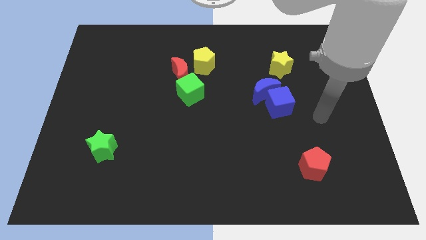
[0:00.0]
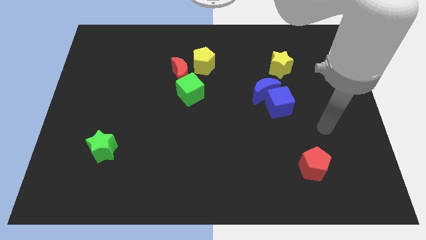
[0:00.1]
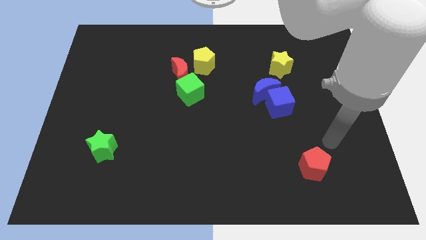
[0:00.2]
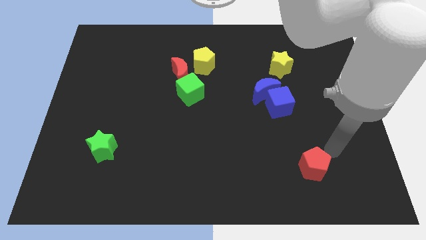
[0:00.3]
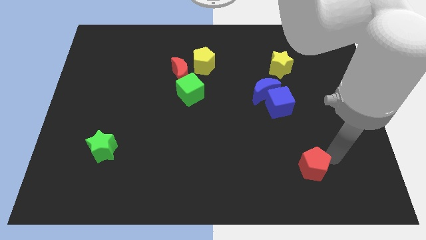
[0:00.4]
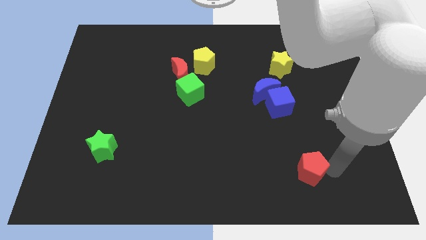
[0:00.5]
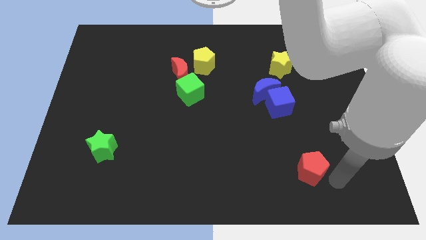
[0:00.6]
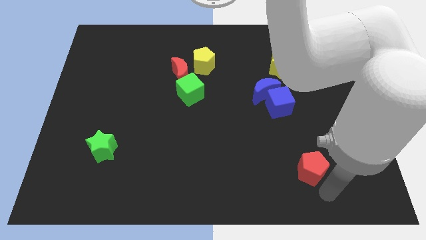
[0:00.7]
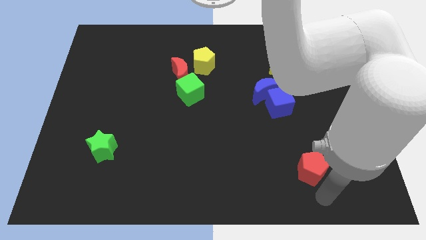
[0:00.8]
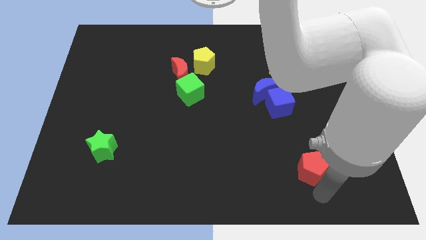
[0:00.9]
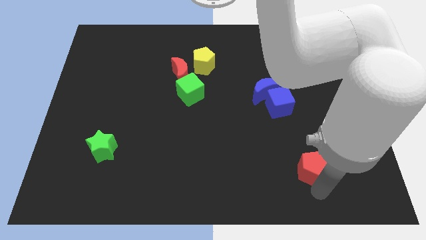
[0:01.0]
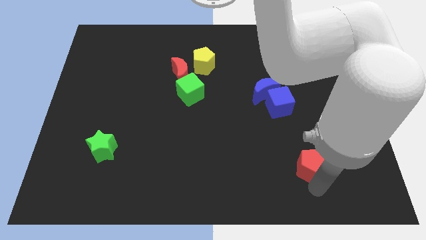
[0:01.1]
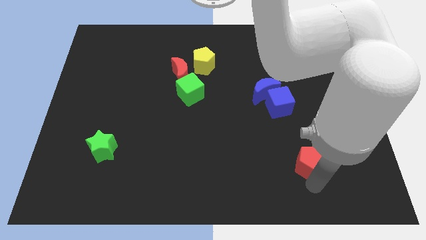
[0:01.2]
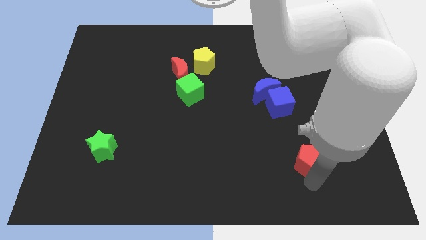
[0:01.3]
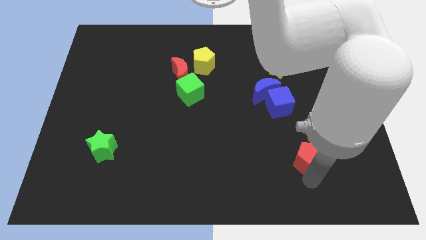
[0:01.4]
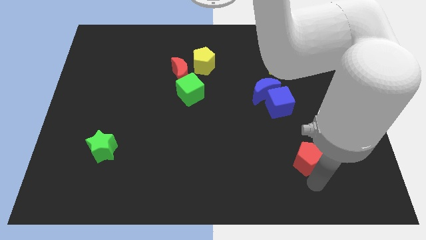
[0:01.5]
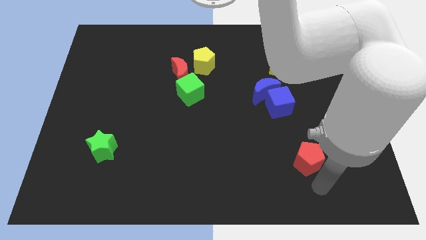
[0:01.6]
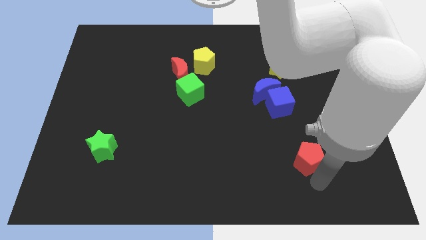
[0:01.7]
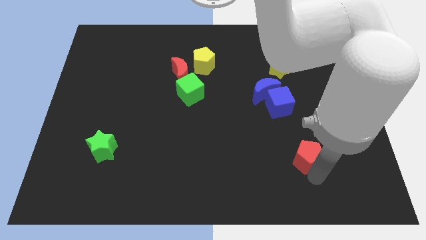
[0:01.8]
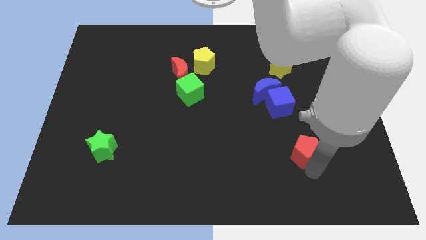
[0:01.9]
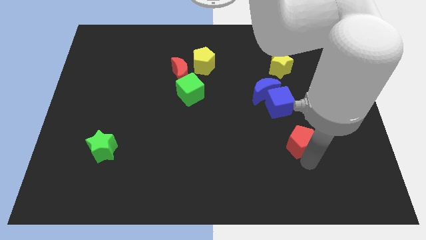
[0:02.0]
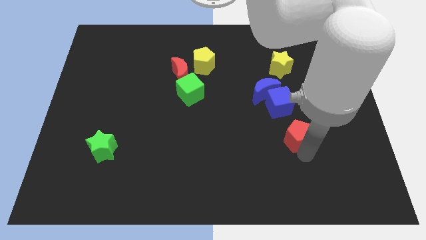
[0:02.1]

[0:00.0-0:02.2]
move the red pentagon upwards a little bit

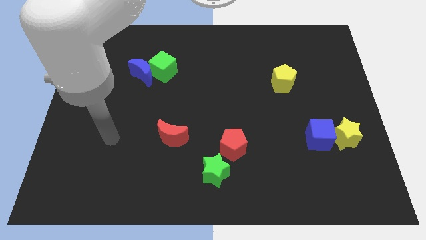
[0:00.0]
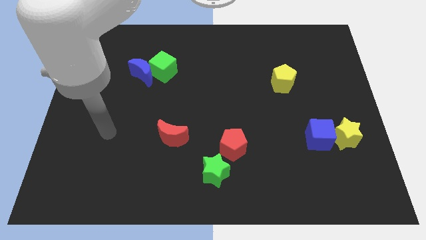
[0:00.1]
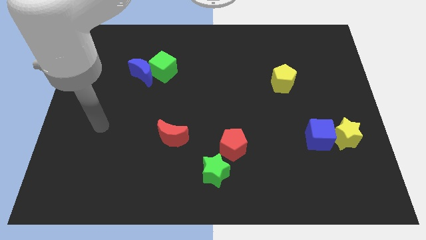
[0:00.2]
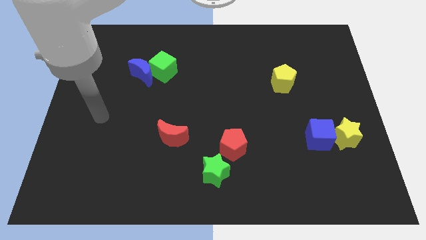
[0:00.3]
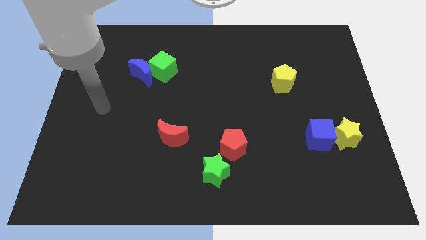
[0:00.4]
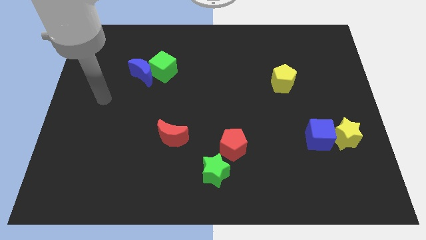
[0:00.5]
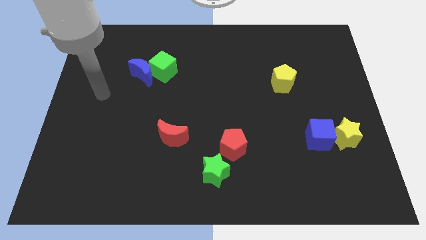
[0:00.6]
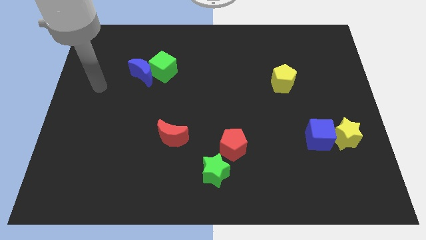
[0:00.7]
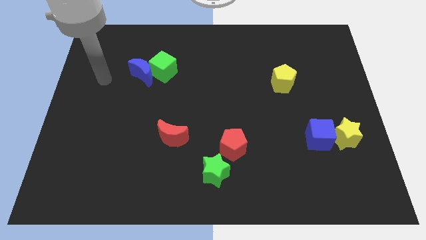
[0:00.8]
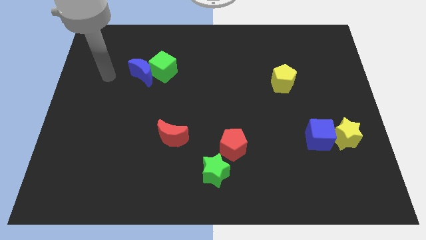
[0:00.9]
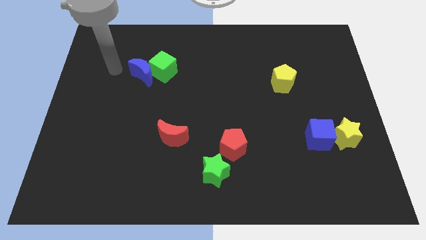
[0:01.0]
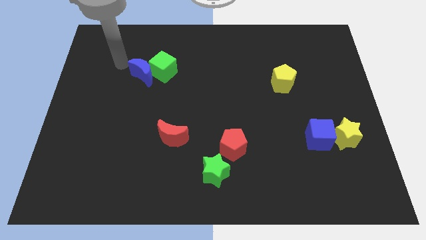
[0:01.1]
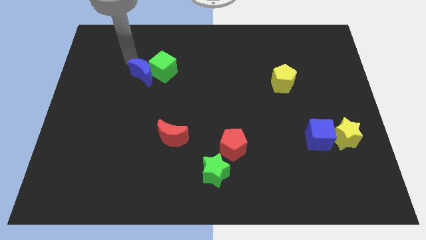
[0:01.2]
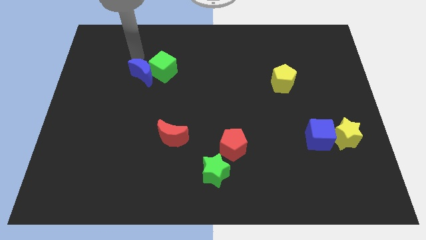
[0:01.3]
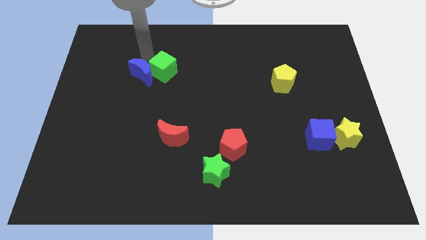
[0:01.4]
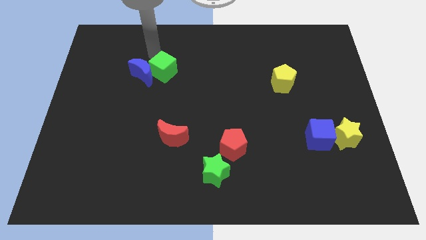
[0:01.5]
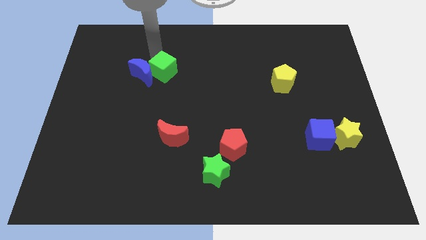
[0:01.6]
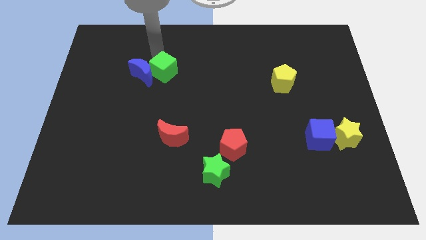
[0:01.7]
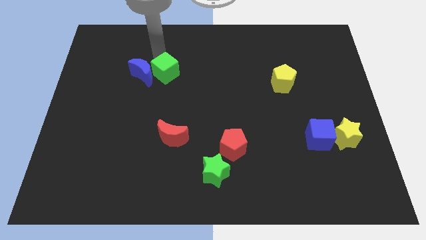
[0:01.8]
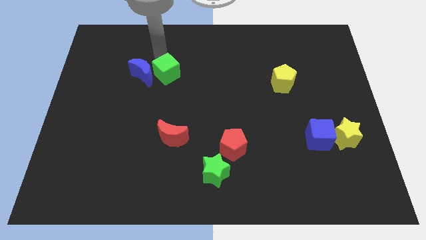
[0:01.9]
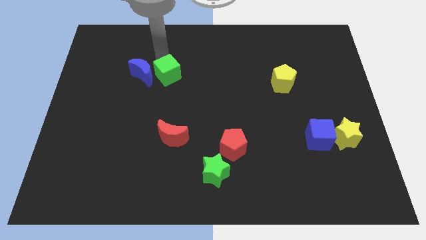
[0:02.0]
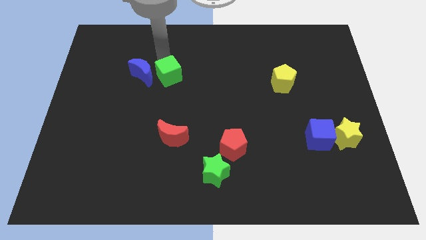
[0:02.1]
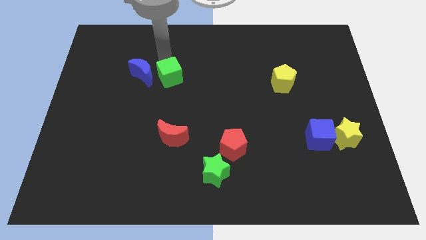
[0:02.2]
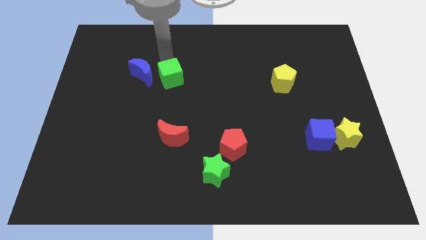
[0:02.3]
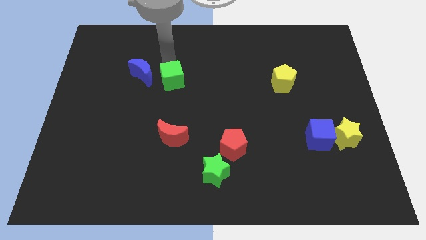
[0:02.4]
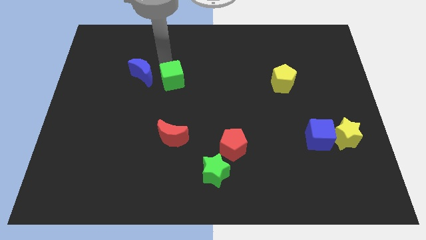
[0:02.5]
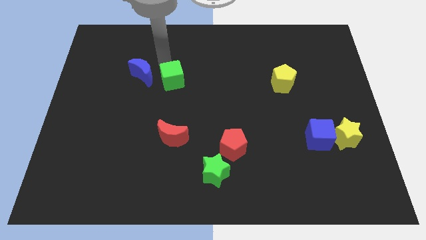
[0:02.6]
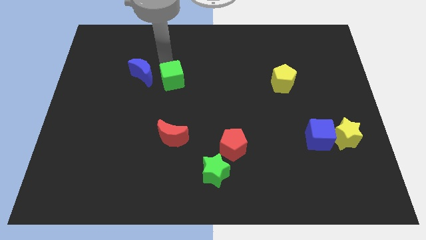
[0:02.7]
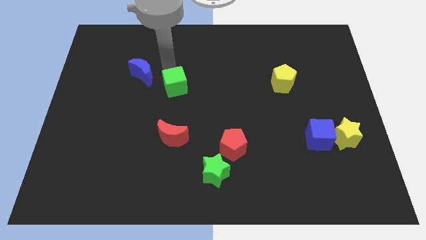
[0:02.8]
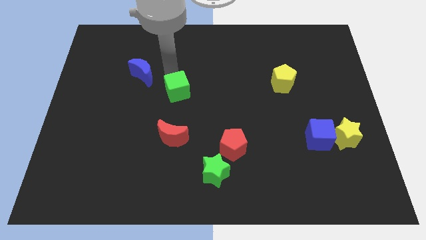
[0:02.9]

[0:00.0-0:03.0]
slightly push the green cube downwards and to the right diagonally

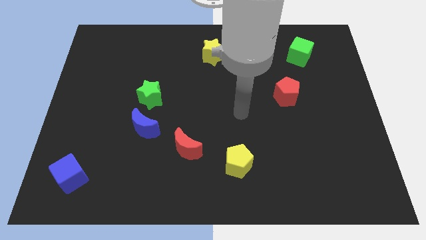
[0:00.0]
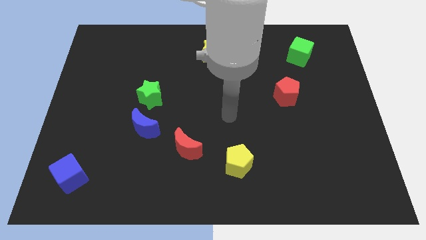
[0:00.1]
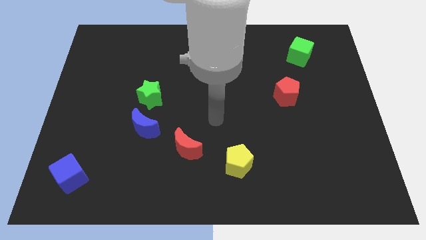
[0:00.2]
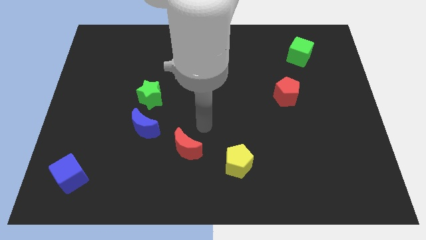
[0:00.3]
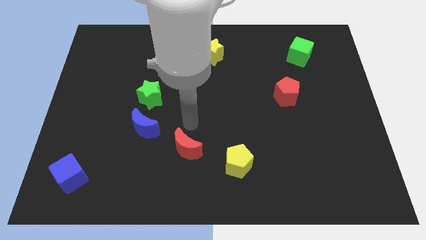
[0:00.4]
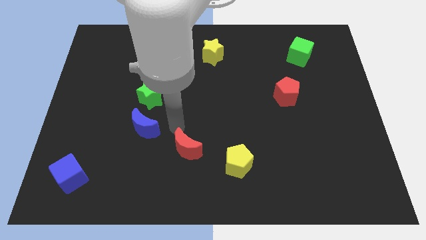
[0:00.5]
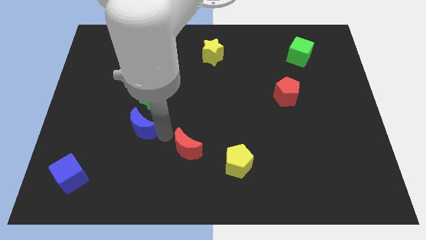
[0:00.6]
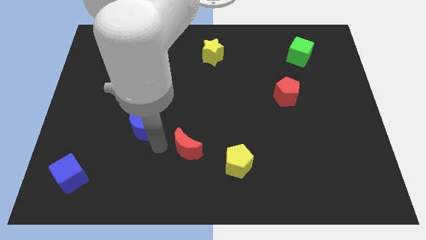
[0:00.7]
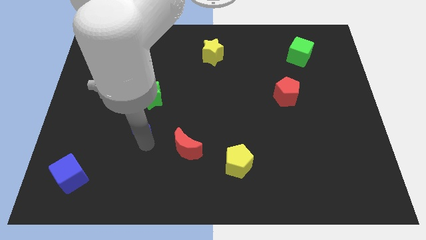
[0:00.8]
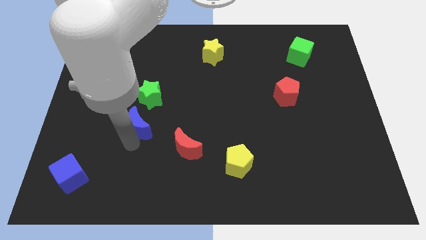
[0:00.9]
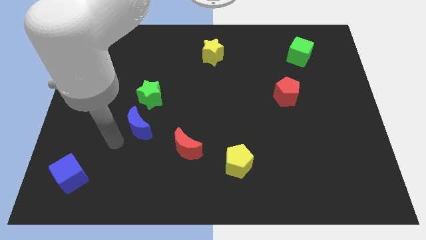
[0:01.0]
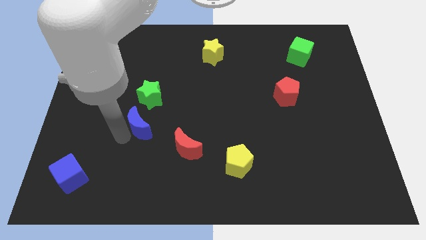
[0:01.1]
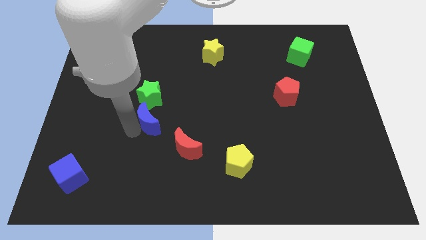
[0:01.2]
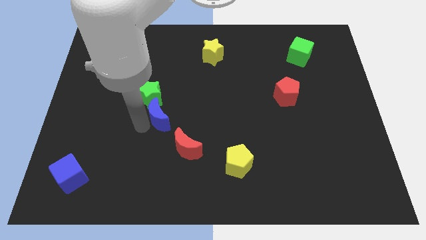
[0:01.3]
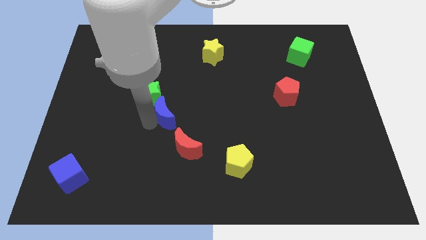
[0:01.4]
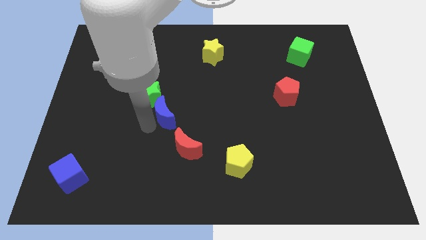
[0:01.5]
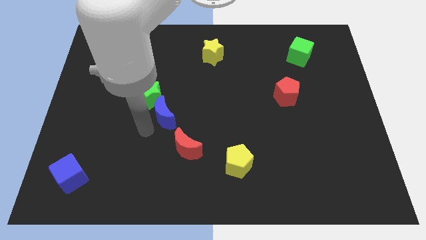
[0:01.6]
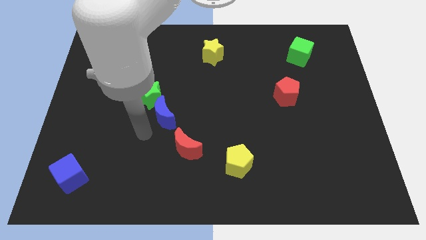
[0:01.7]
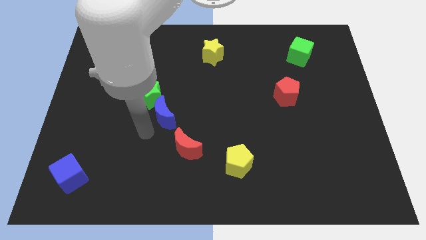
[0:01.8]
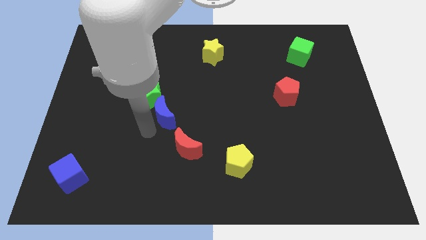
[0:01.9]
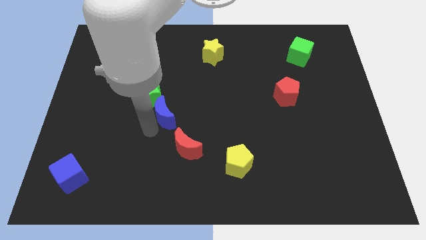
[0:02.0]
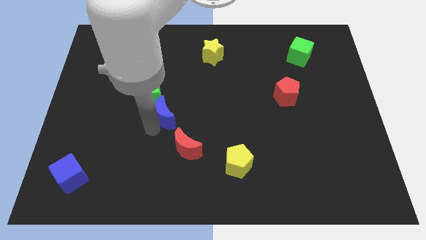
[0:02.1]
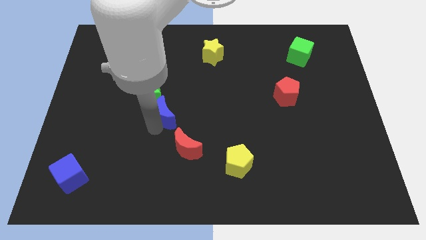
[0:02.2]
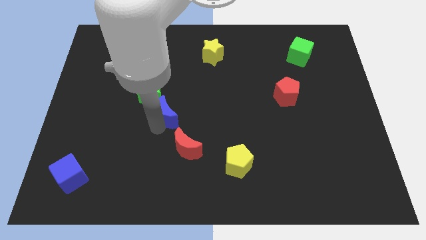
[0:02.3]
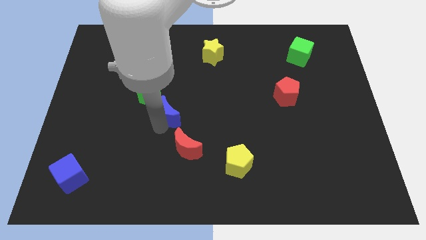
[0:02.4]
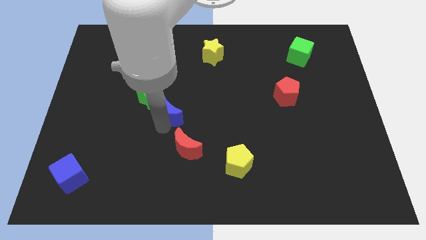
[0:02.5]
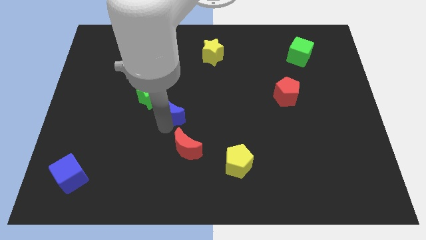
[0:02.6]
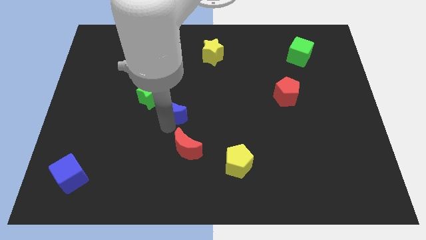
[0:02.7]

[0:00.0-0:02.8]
slide the blue moon diagonally upwards and right a bit

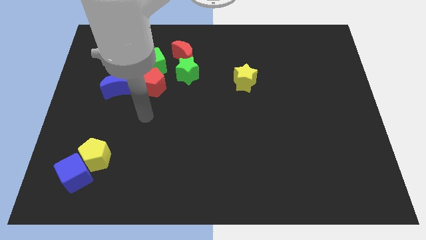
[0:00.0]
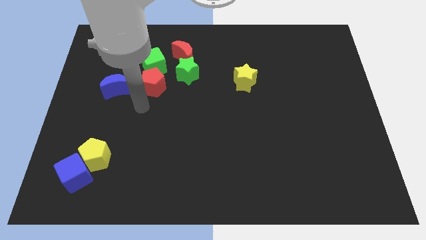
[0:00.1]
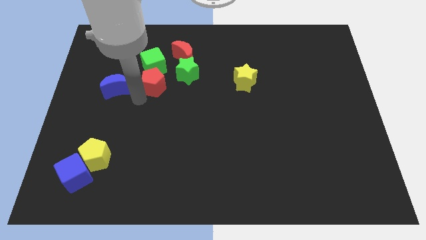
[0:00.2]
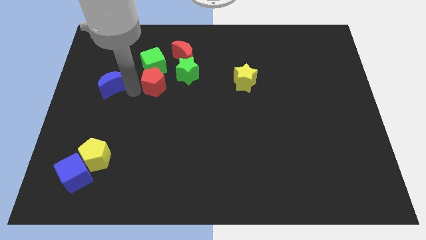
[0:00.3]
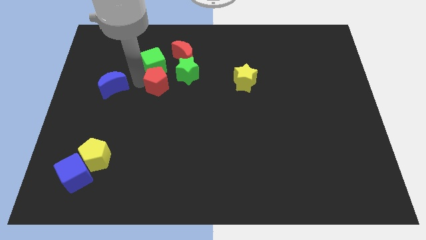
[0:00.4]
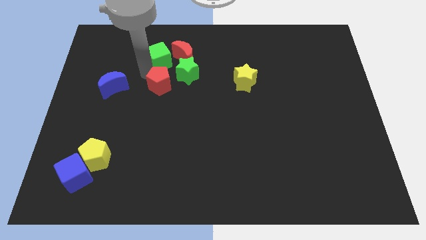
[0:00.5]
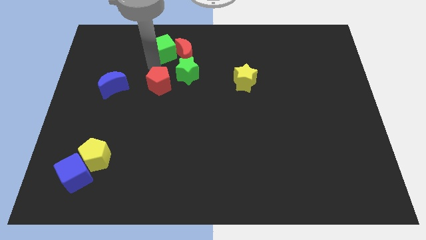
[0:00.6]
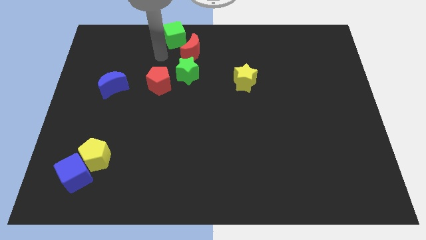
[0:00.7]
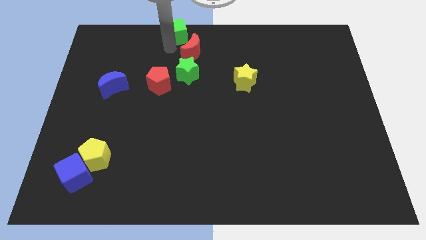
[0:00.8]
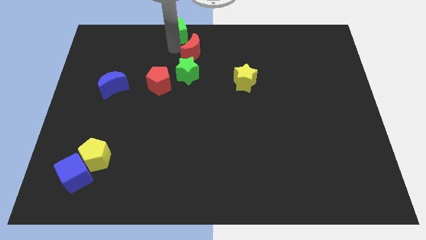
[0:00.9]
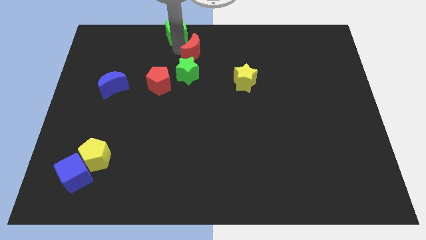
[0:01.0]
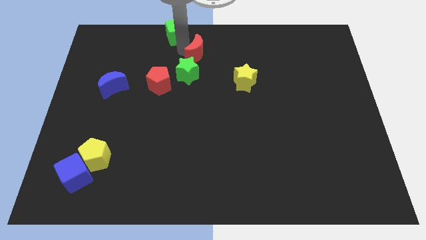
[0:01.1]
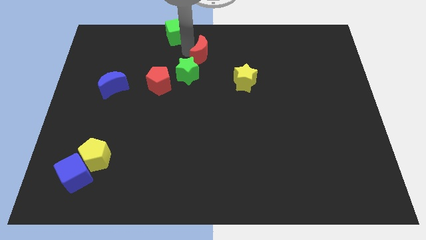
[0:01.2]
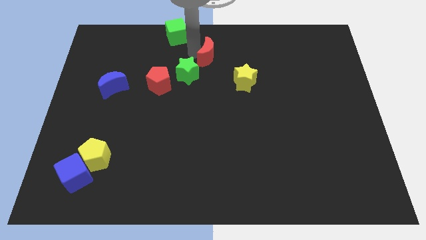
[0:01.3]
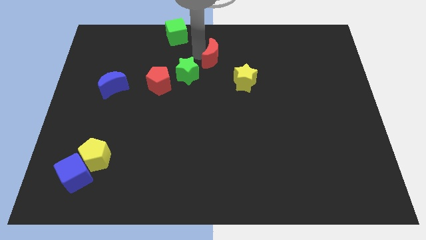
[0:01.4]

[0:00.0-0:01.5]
slightly slide the red moon to the right
